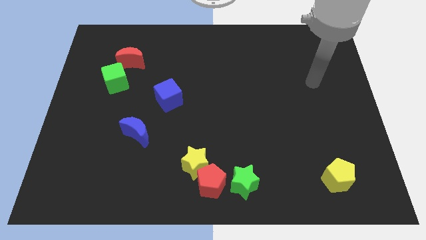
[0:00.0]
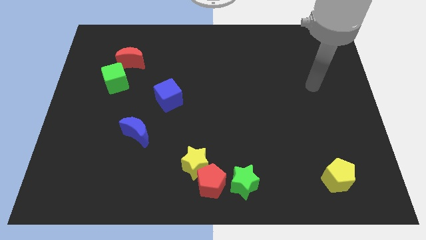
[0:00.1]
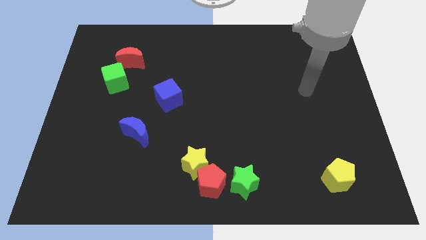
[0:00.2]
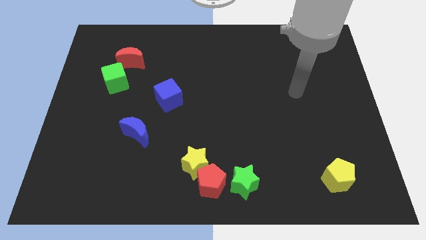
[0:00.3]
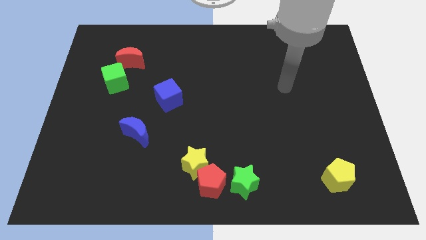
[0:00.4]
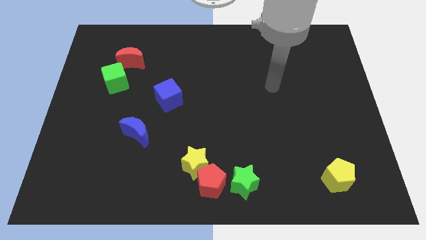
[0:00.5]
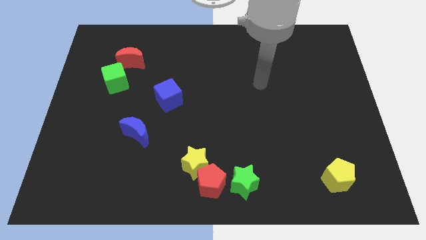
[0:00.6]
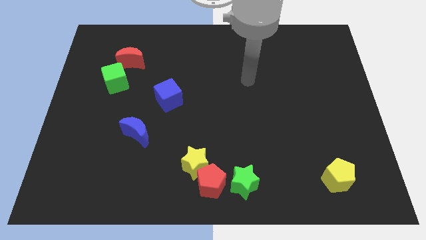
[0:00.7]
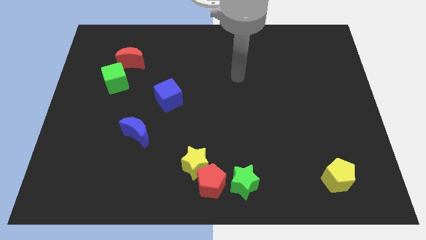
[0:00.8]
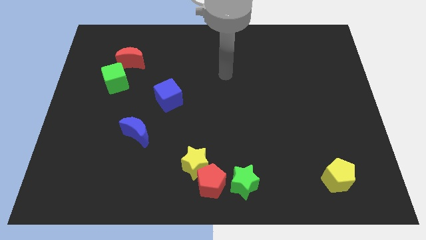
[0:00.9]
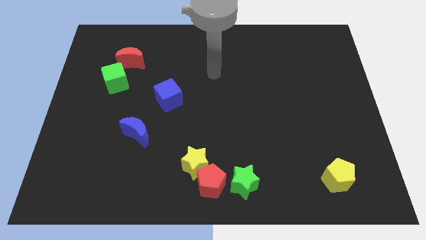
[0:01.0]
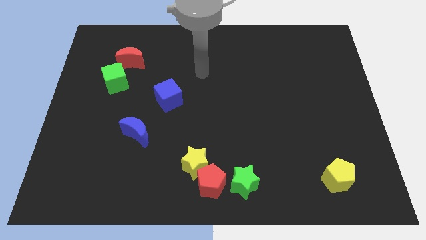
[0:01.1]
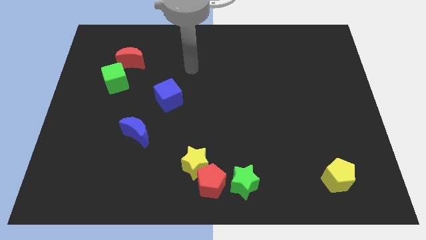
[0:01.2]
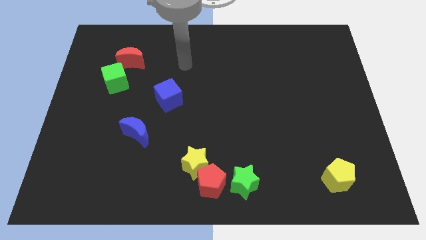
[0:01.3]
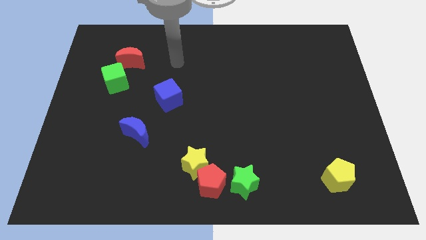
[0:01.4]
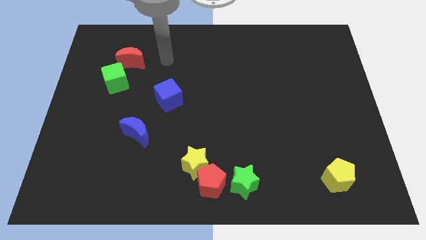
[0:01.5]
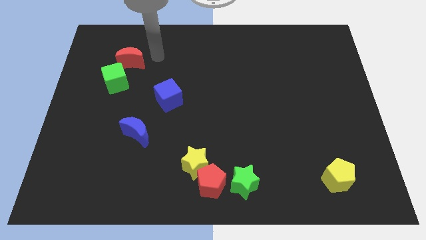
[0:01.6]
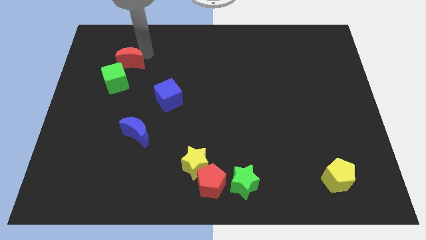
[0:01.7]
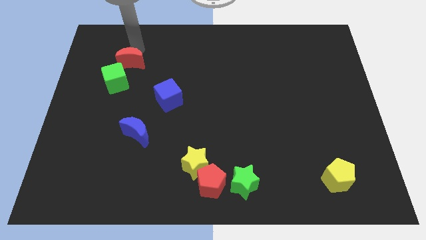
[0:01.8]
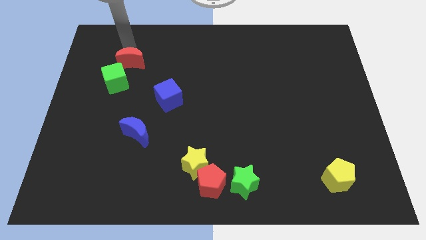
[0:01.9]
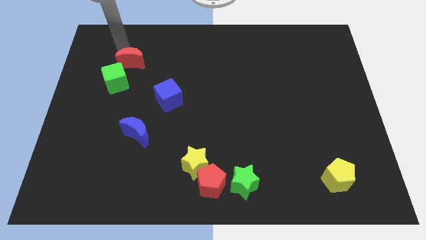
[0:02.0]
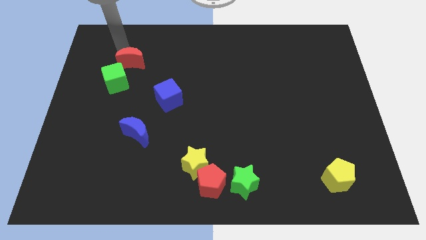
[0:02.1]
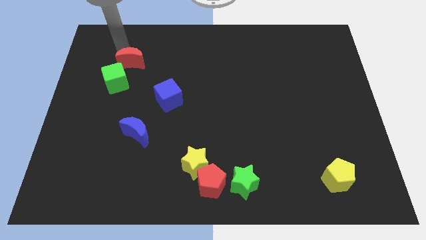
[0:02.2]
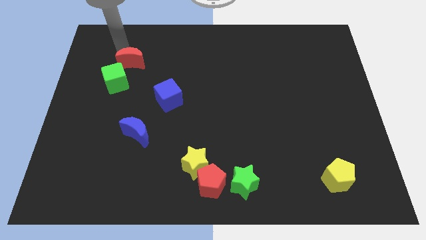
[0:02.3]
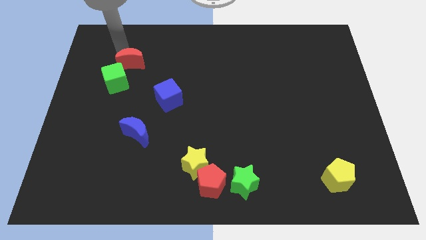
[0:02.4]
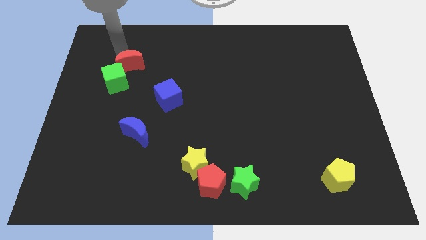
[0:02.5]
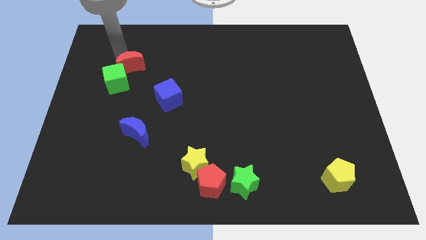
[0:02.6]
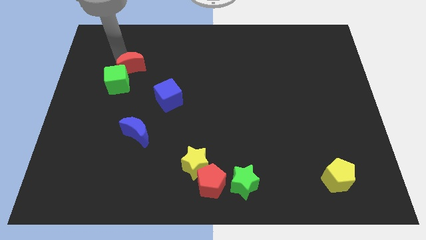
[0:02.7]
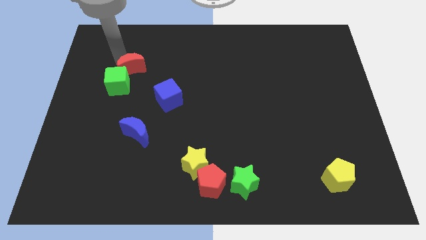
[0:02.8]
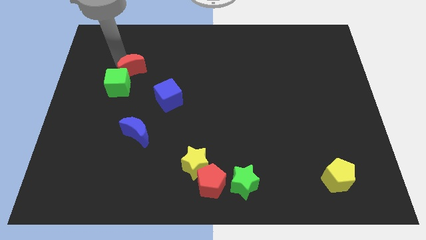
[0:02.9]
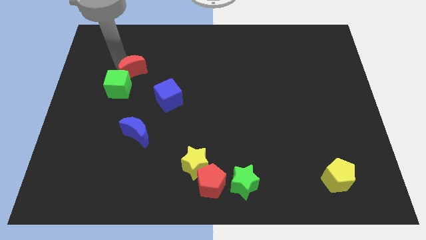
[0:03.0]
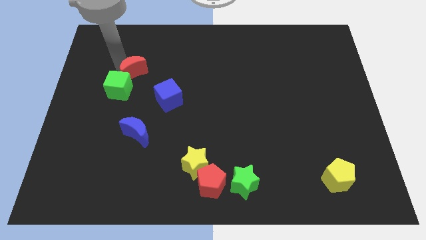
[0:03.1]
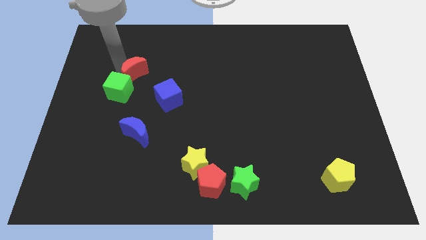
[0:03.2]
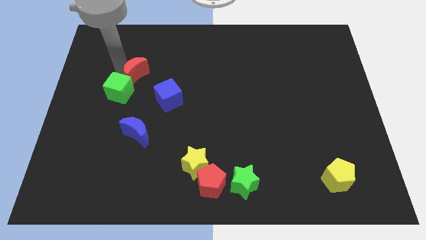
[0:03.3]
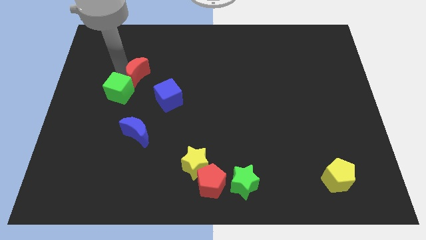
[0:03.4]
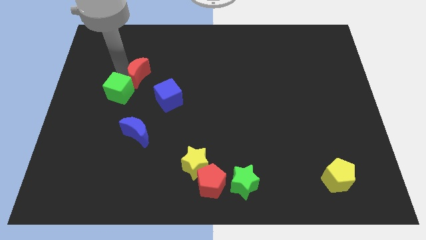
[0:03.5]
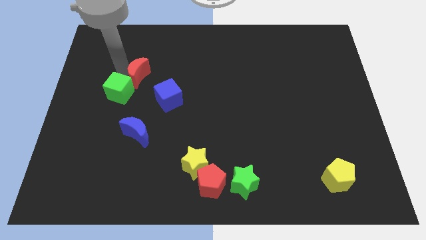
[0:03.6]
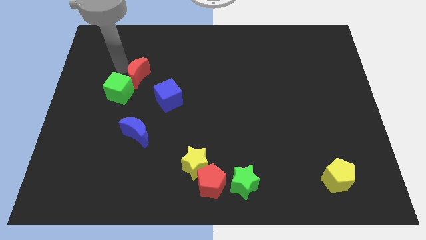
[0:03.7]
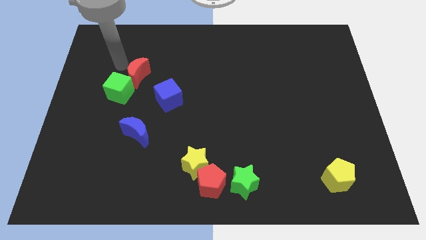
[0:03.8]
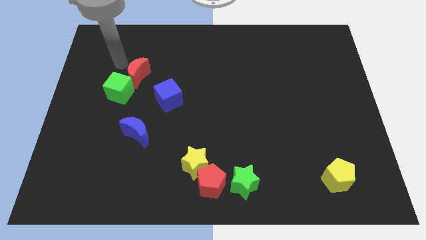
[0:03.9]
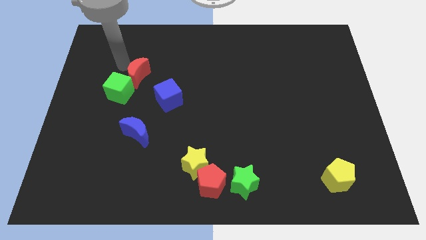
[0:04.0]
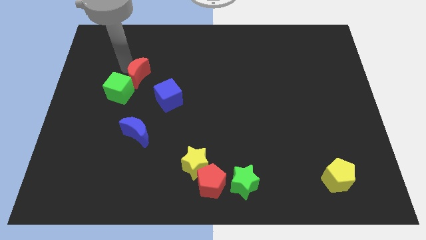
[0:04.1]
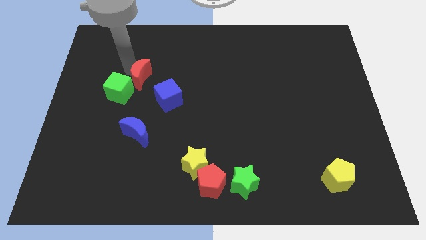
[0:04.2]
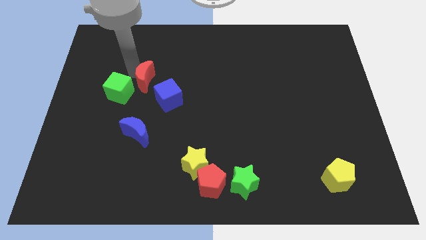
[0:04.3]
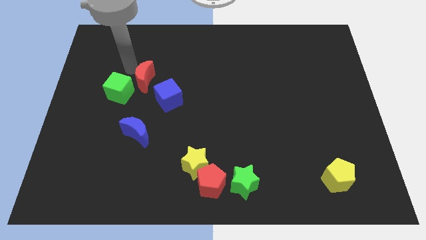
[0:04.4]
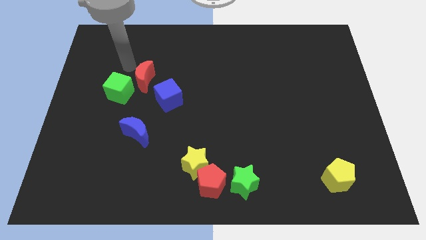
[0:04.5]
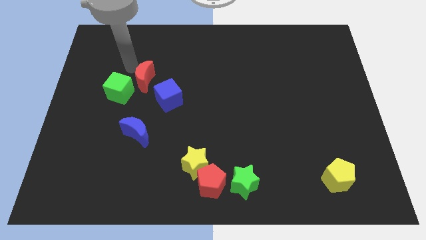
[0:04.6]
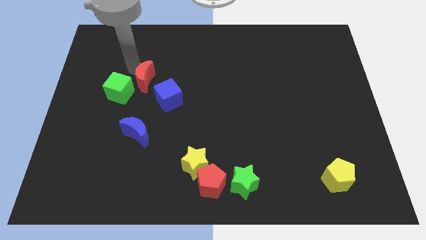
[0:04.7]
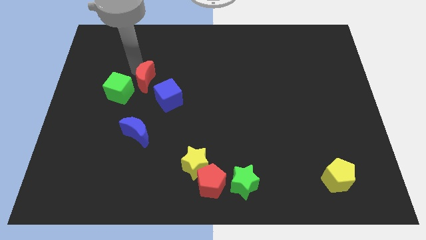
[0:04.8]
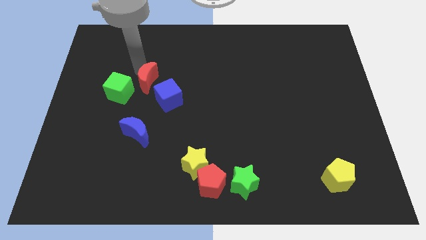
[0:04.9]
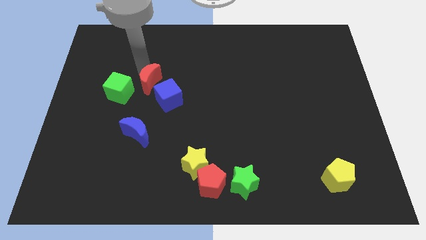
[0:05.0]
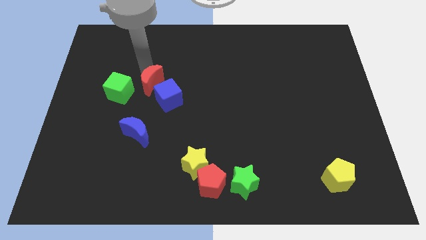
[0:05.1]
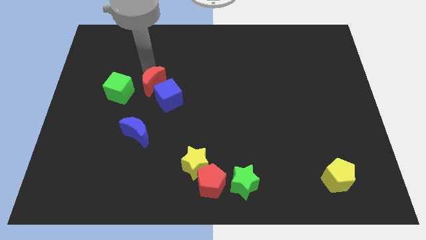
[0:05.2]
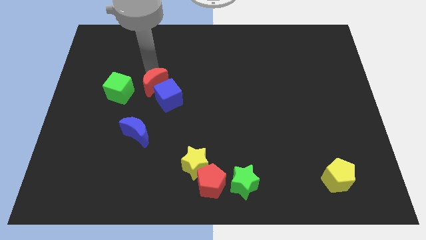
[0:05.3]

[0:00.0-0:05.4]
move the red moon close to the blue cube

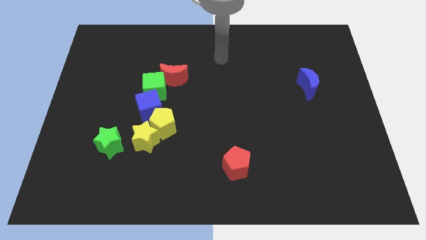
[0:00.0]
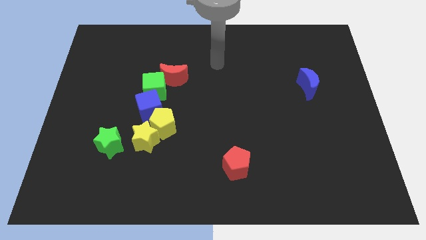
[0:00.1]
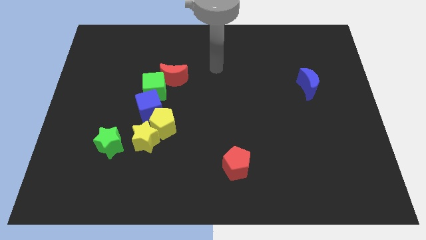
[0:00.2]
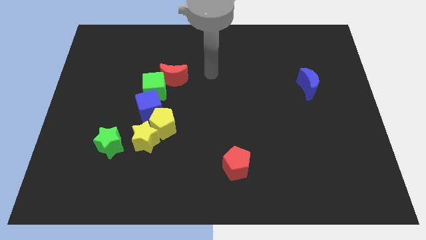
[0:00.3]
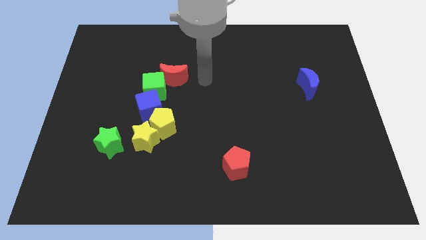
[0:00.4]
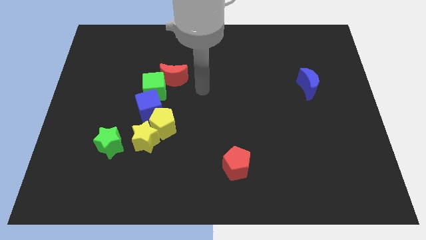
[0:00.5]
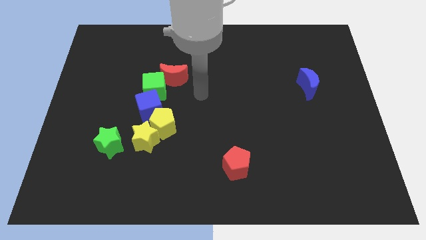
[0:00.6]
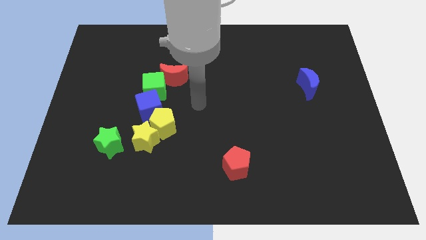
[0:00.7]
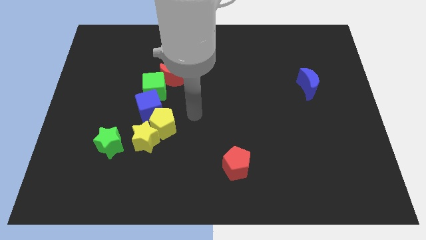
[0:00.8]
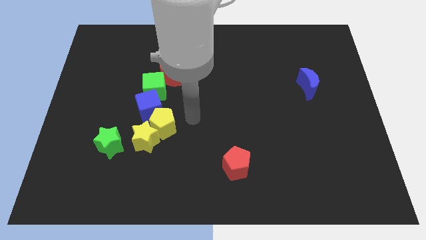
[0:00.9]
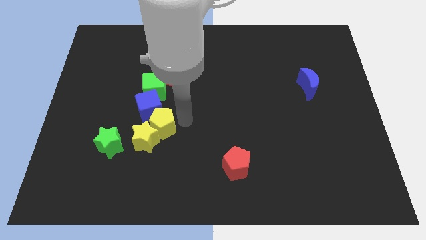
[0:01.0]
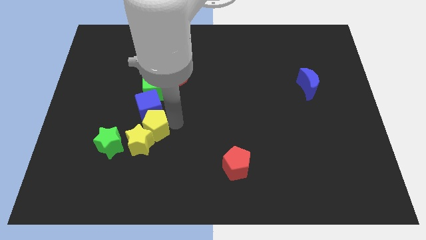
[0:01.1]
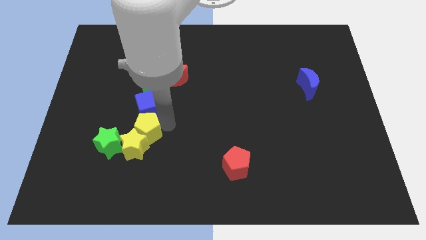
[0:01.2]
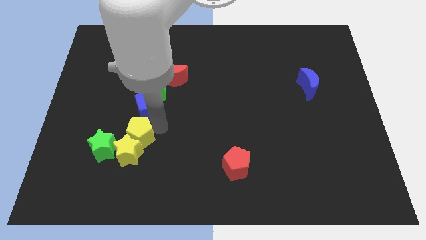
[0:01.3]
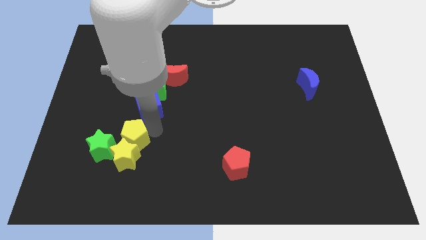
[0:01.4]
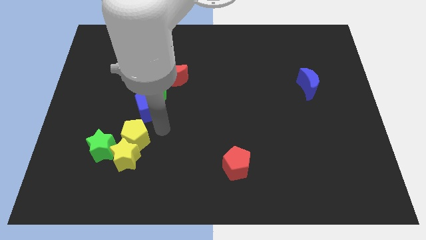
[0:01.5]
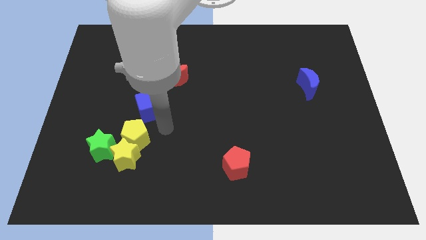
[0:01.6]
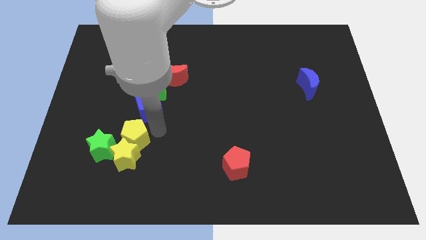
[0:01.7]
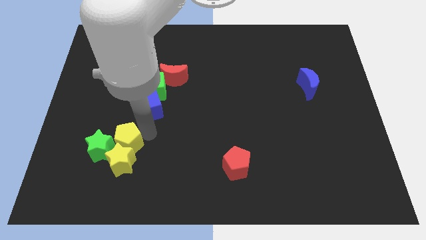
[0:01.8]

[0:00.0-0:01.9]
put the yellow pentagon close to the green star

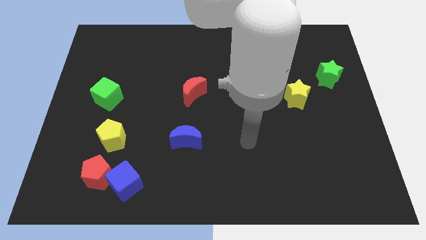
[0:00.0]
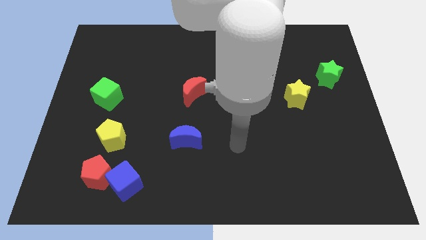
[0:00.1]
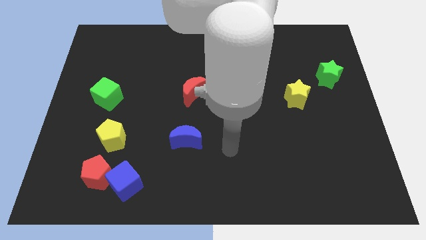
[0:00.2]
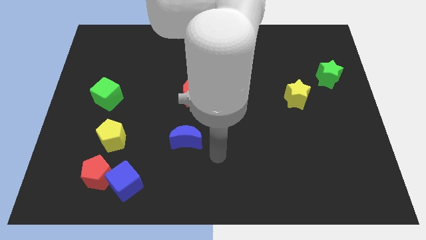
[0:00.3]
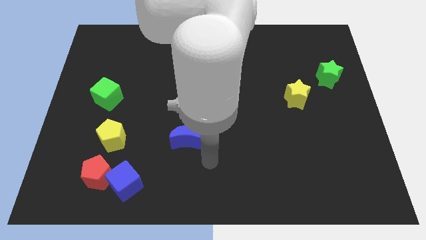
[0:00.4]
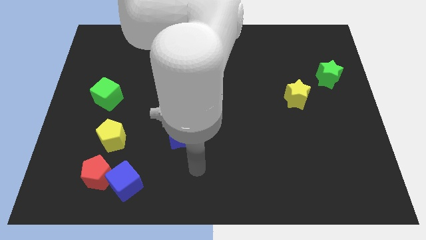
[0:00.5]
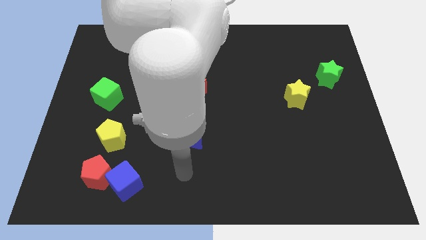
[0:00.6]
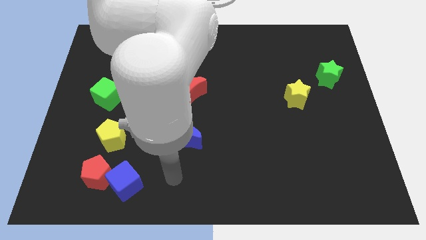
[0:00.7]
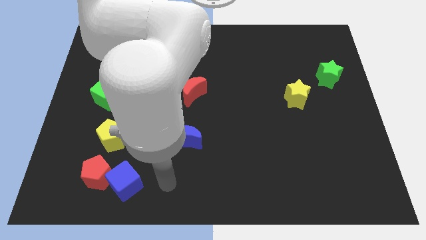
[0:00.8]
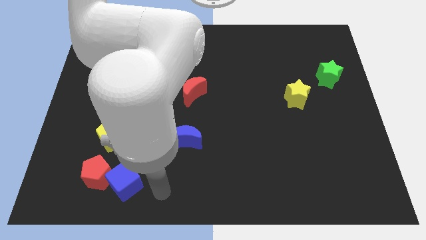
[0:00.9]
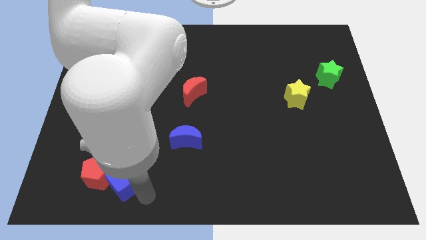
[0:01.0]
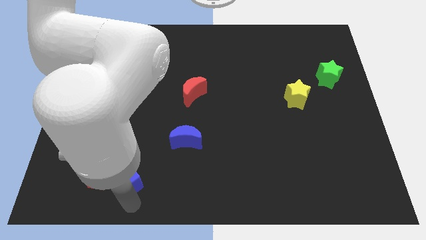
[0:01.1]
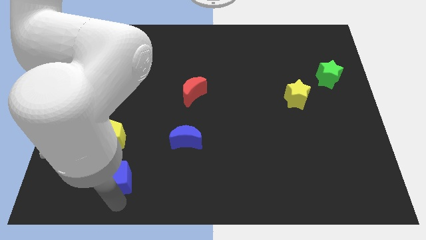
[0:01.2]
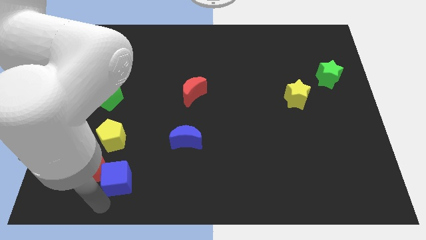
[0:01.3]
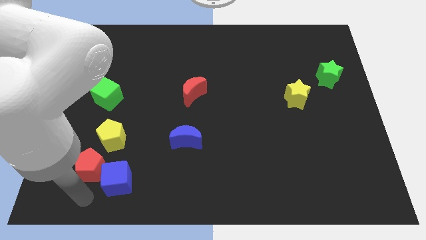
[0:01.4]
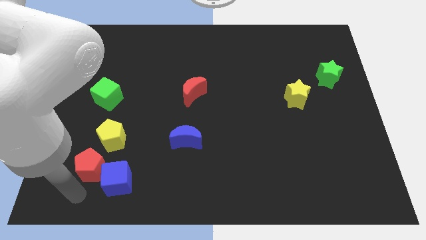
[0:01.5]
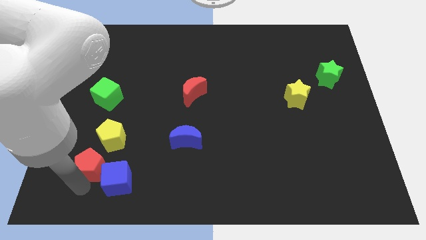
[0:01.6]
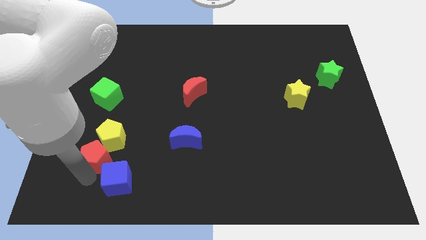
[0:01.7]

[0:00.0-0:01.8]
push the red pentagon next to the yellow pentagon
